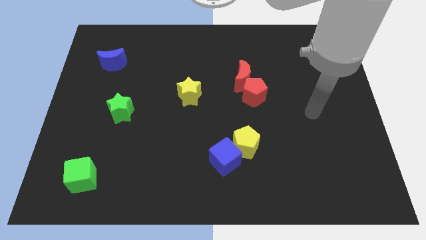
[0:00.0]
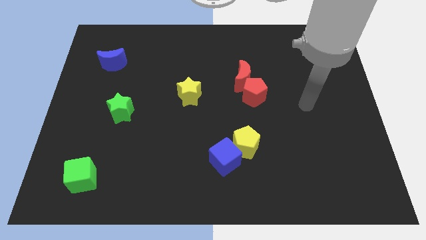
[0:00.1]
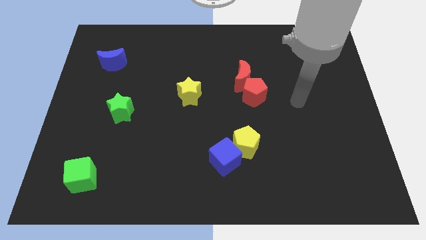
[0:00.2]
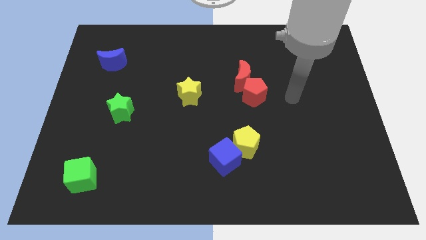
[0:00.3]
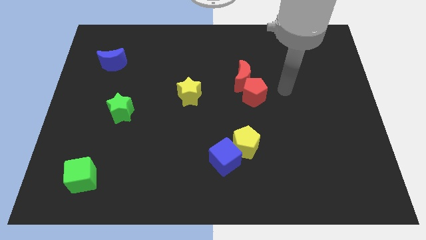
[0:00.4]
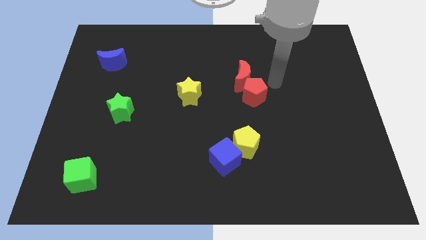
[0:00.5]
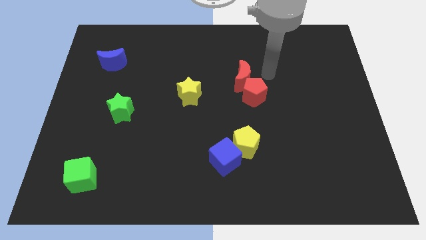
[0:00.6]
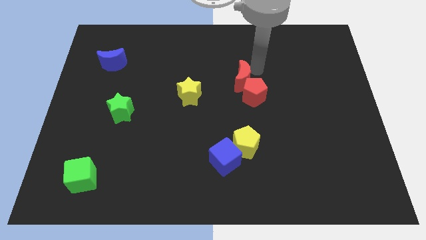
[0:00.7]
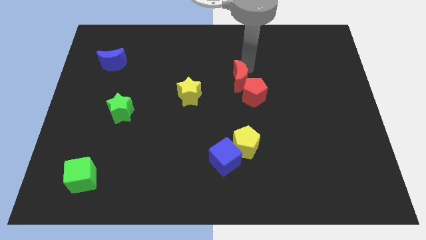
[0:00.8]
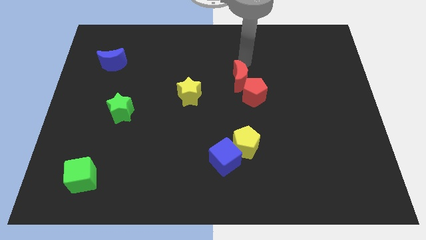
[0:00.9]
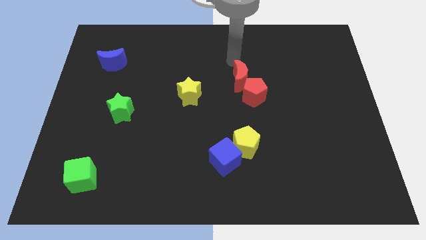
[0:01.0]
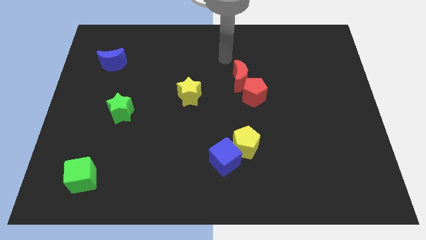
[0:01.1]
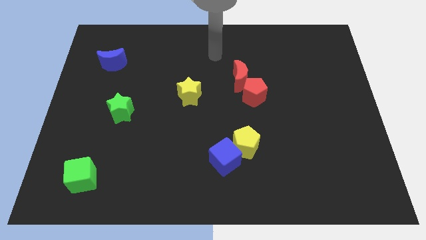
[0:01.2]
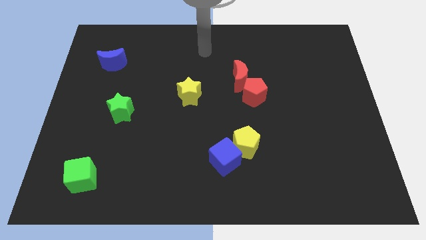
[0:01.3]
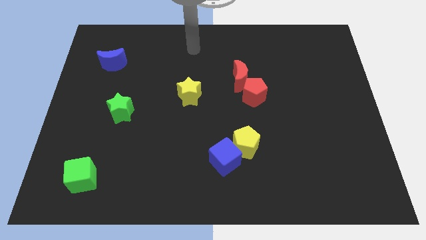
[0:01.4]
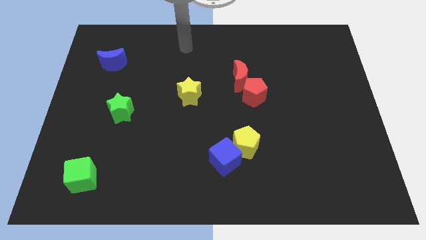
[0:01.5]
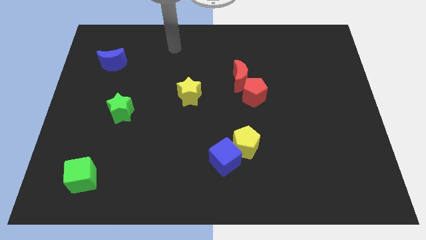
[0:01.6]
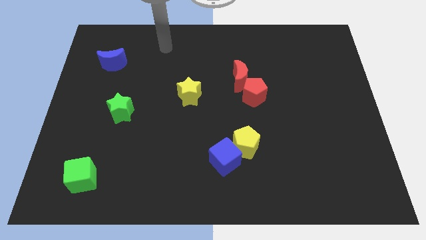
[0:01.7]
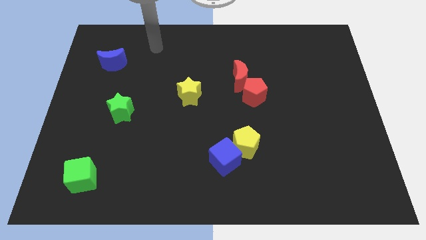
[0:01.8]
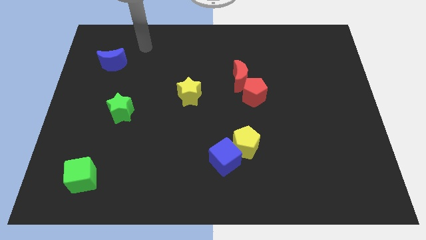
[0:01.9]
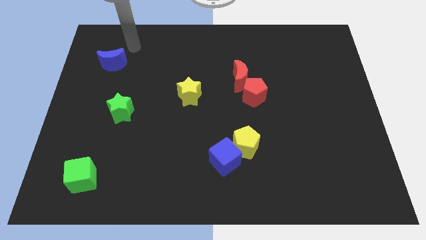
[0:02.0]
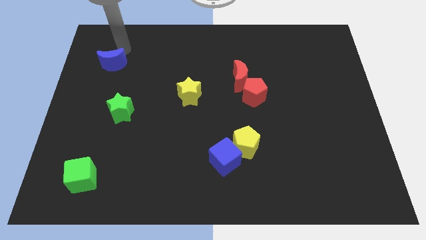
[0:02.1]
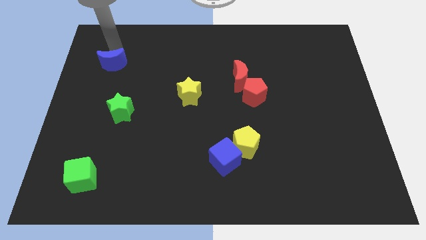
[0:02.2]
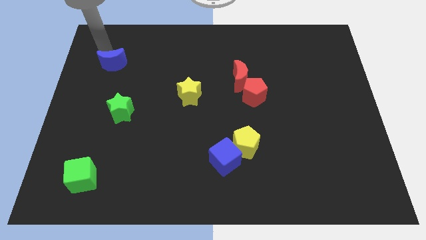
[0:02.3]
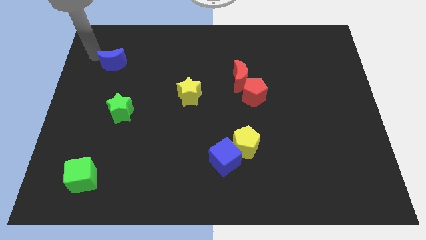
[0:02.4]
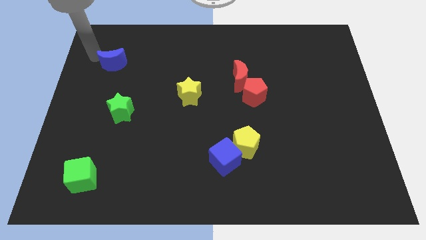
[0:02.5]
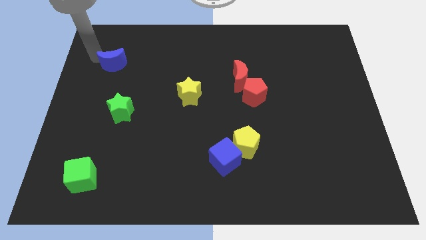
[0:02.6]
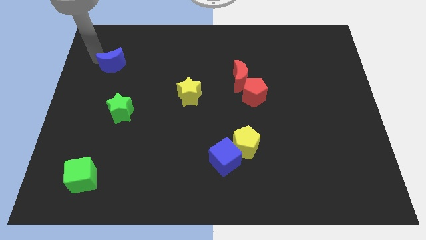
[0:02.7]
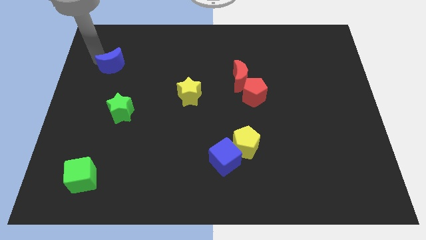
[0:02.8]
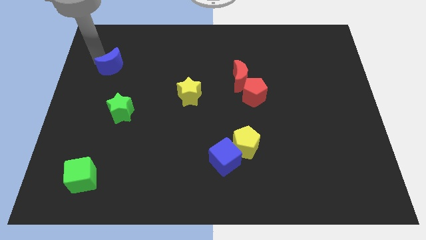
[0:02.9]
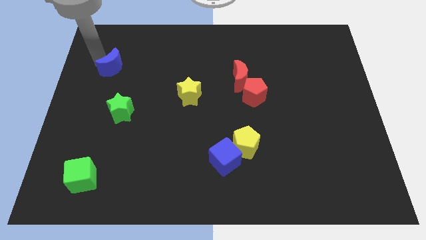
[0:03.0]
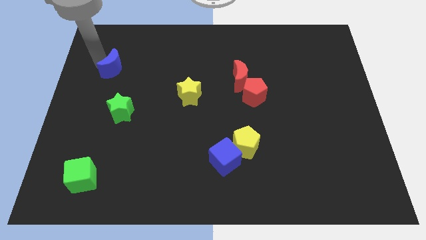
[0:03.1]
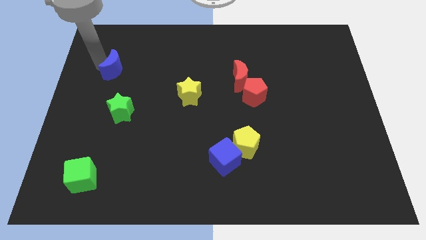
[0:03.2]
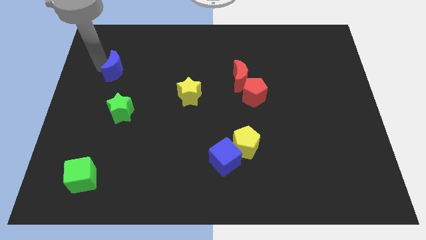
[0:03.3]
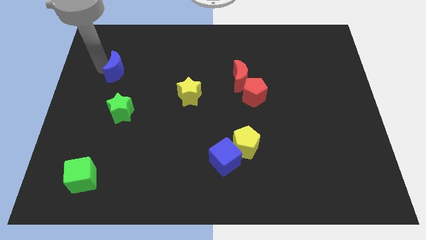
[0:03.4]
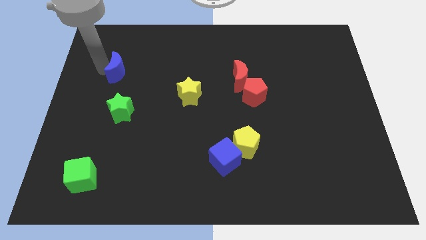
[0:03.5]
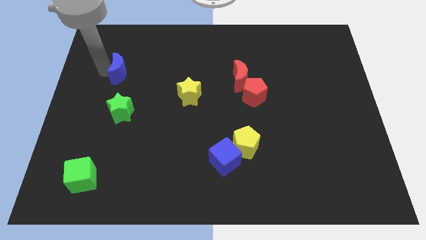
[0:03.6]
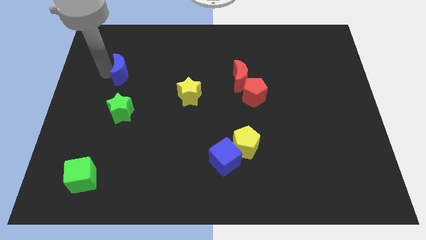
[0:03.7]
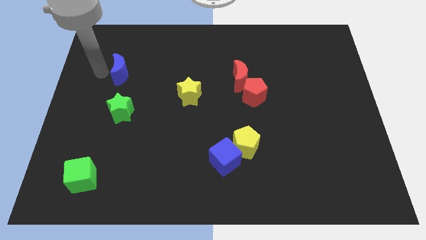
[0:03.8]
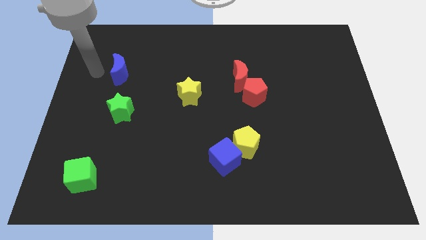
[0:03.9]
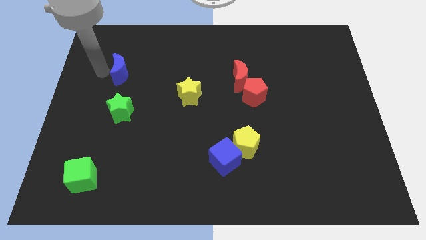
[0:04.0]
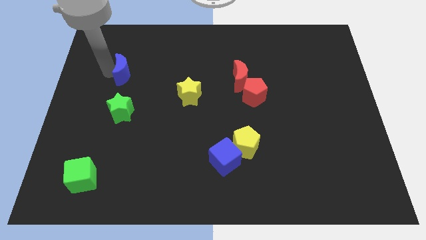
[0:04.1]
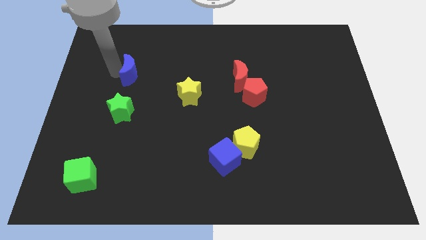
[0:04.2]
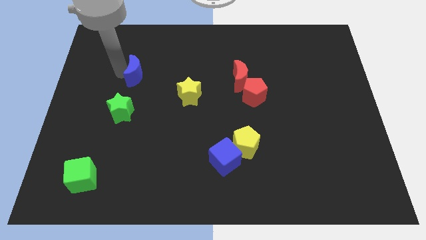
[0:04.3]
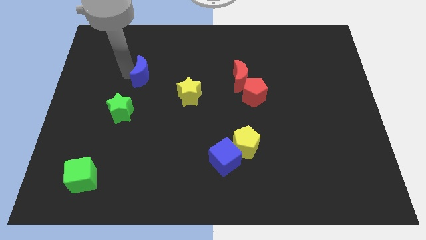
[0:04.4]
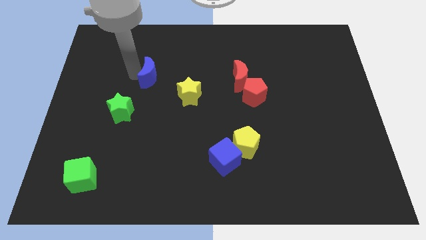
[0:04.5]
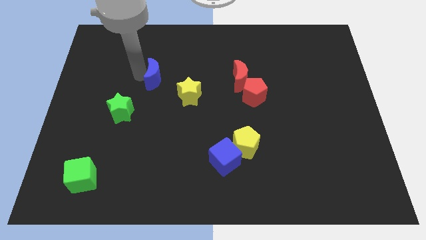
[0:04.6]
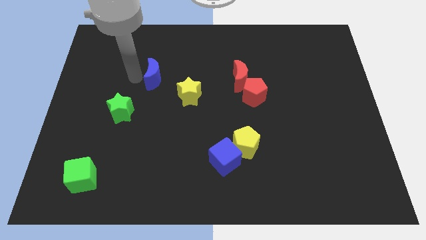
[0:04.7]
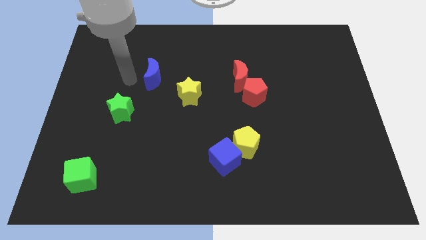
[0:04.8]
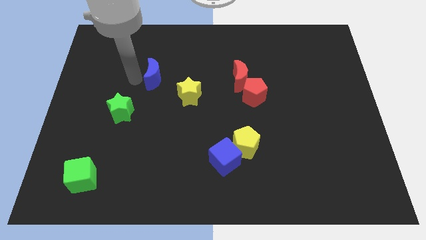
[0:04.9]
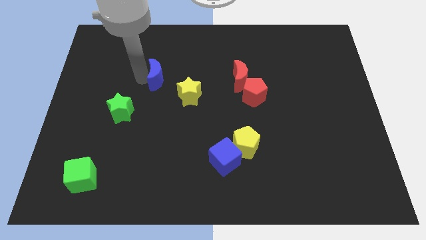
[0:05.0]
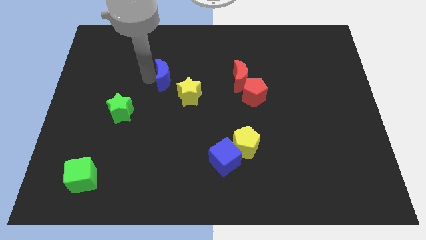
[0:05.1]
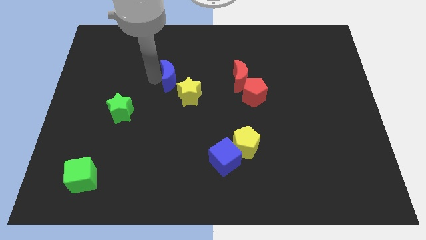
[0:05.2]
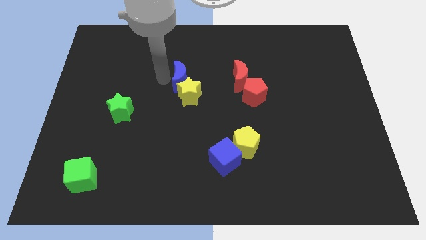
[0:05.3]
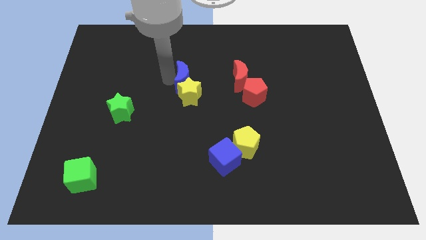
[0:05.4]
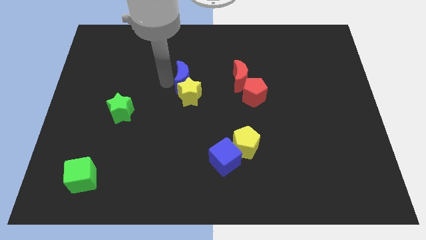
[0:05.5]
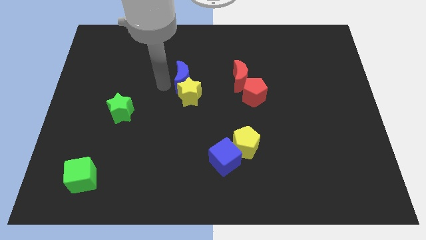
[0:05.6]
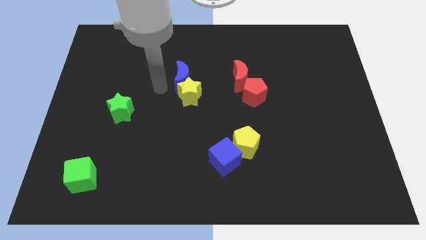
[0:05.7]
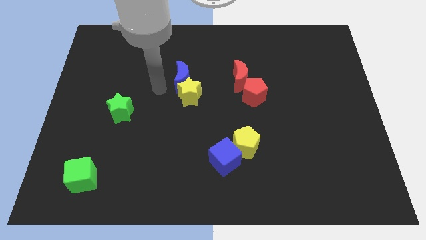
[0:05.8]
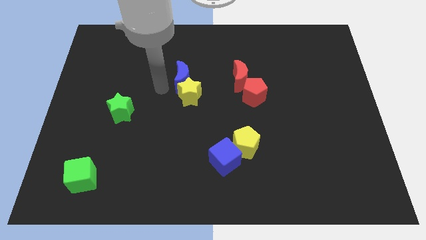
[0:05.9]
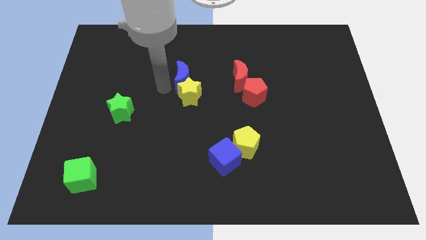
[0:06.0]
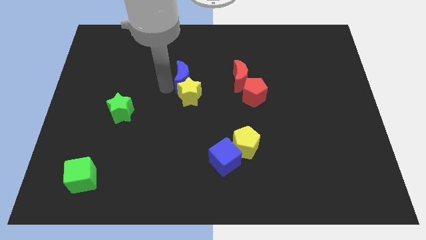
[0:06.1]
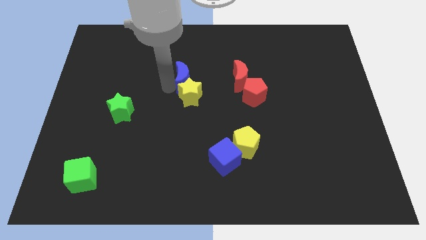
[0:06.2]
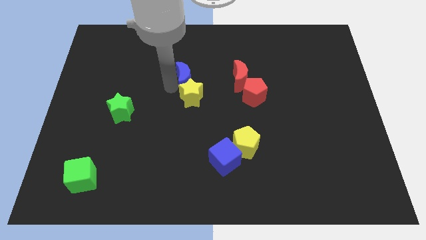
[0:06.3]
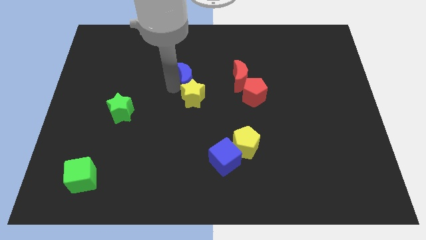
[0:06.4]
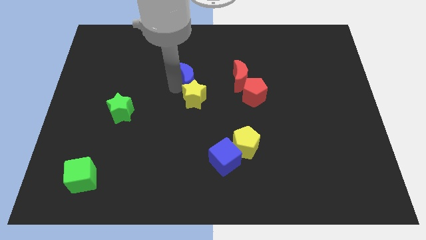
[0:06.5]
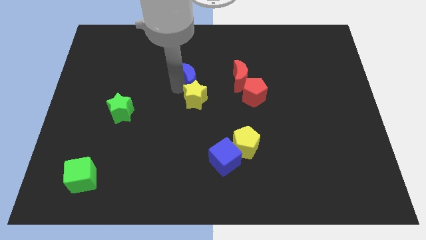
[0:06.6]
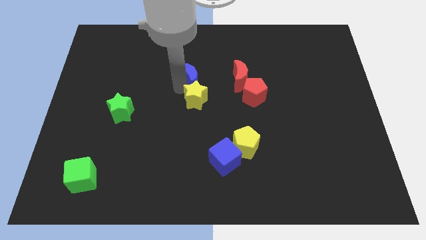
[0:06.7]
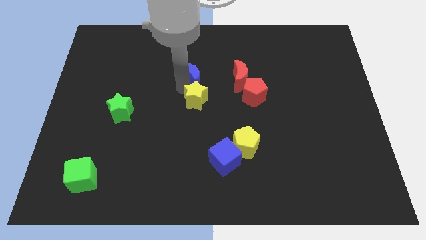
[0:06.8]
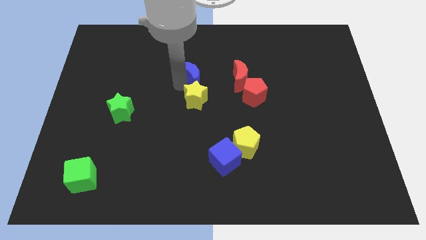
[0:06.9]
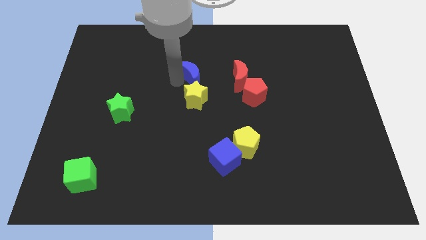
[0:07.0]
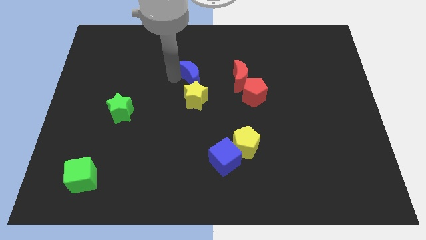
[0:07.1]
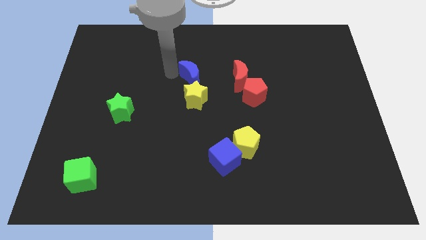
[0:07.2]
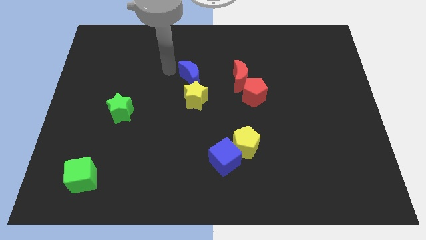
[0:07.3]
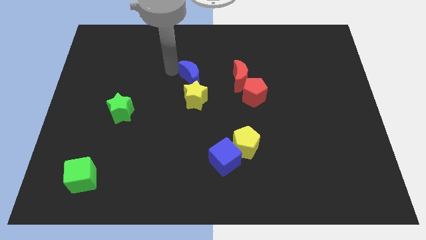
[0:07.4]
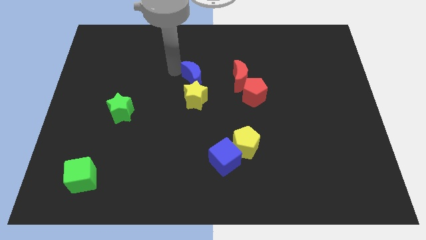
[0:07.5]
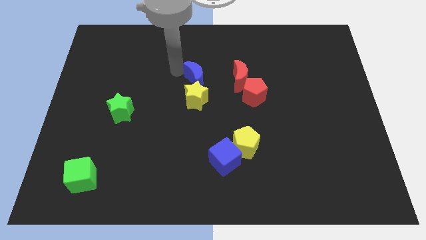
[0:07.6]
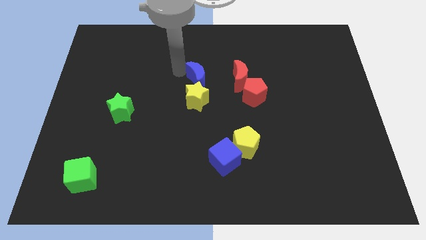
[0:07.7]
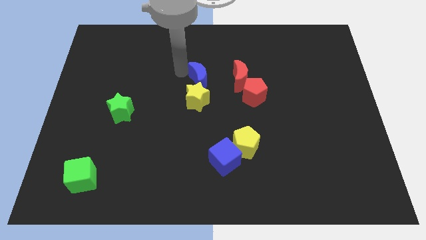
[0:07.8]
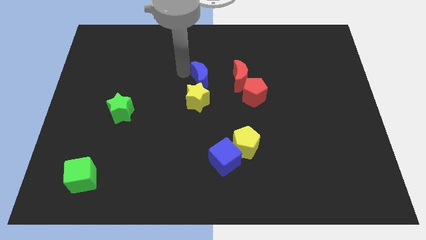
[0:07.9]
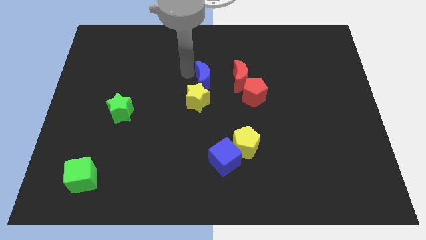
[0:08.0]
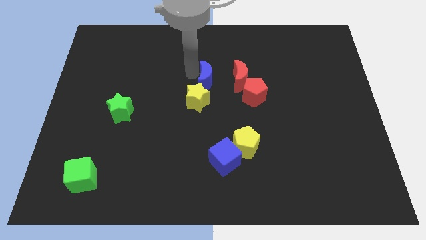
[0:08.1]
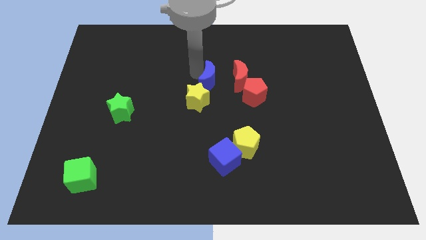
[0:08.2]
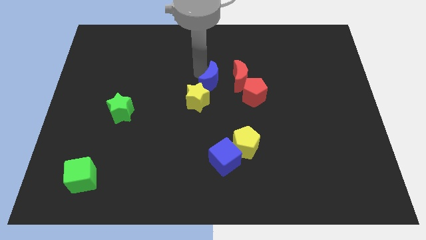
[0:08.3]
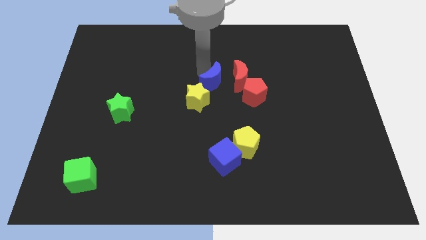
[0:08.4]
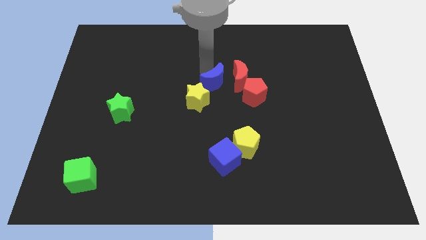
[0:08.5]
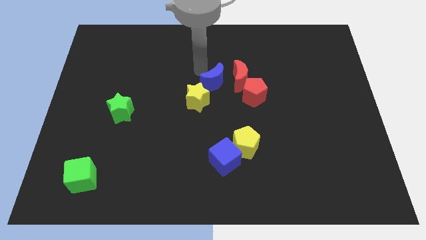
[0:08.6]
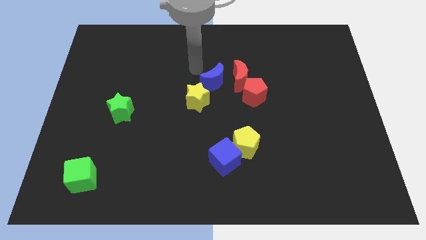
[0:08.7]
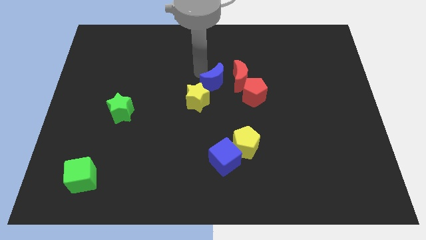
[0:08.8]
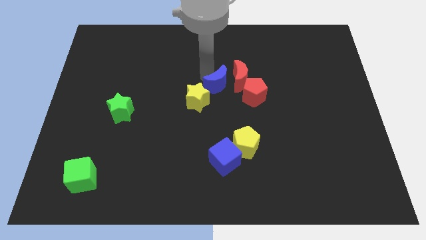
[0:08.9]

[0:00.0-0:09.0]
move the blue moon right of the yellow star
